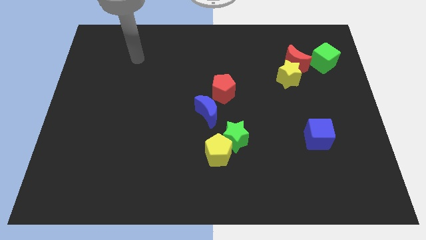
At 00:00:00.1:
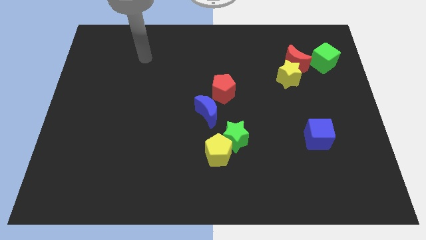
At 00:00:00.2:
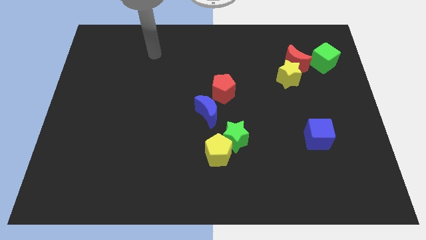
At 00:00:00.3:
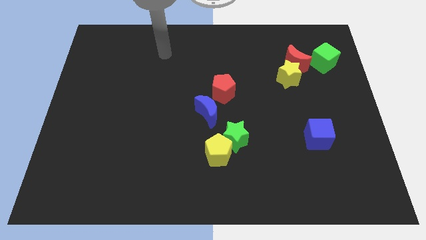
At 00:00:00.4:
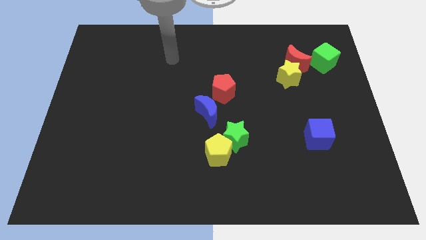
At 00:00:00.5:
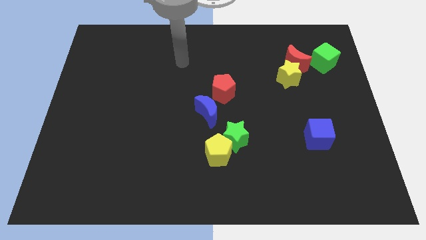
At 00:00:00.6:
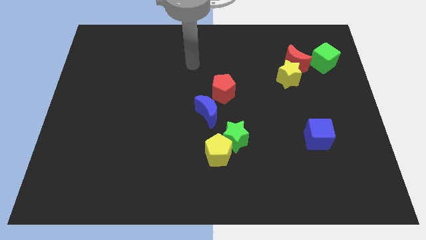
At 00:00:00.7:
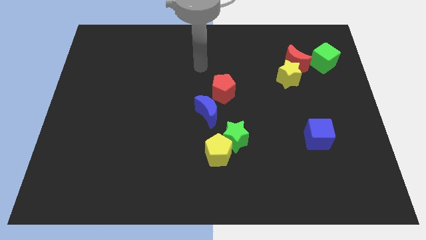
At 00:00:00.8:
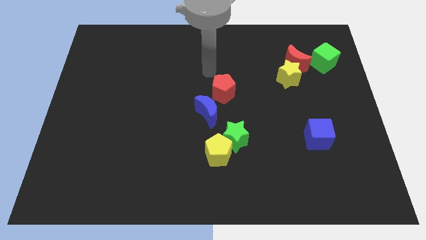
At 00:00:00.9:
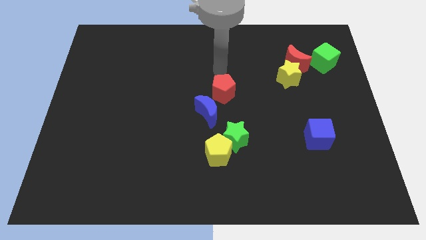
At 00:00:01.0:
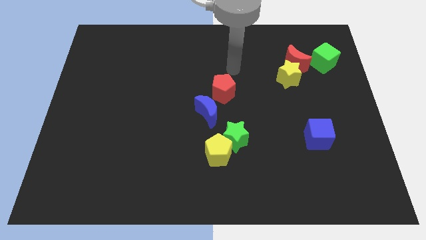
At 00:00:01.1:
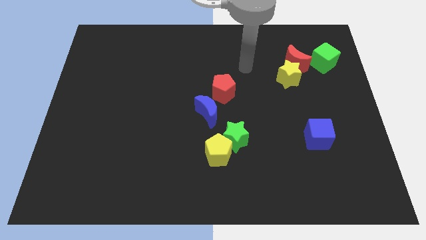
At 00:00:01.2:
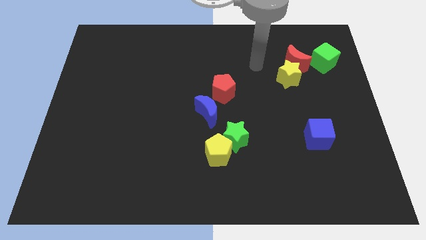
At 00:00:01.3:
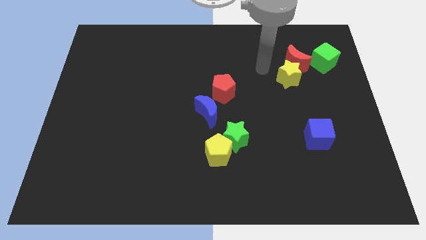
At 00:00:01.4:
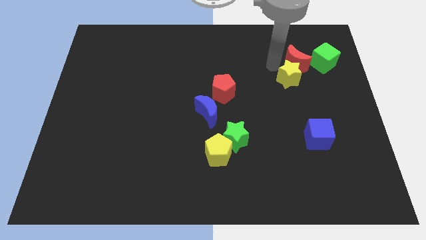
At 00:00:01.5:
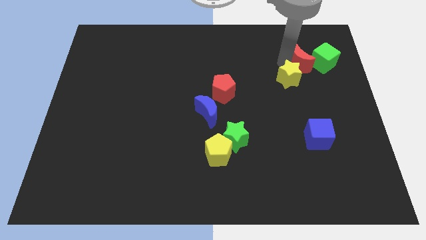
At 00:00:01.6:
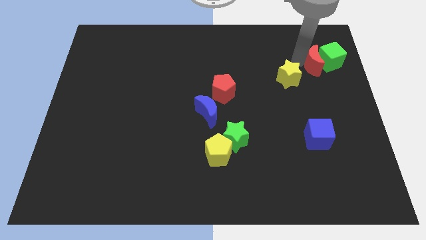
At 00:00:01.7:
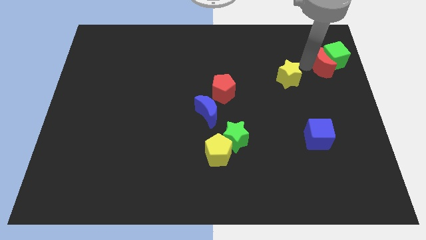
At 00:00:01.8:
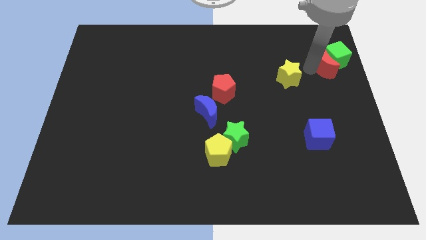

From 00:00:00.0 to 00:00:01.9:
move the yellow star away from the red moon

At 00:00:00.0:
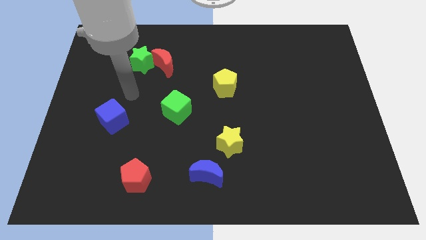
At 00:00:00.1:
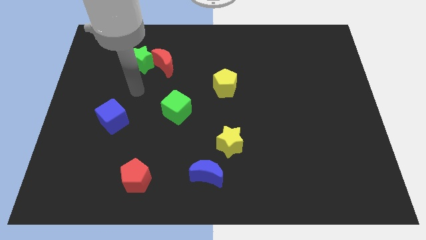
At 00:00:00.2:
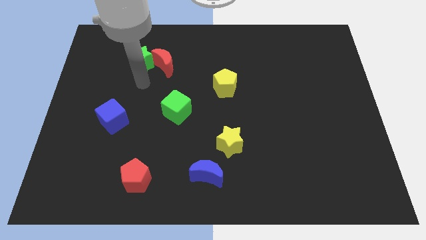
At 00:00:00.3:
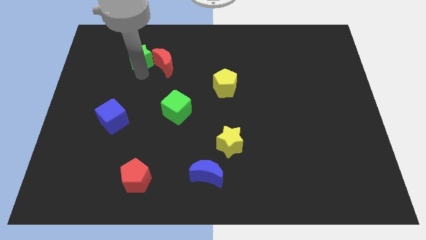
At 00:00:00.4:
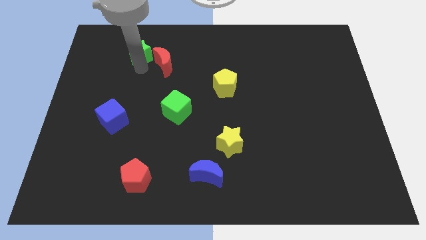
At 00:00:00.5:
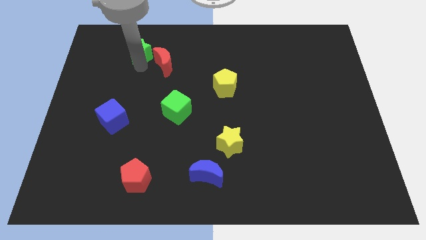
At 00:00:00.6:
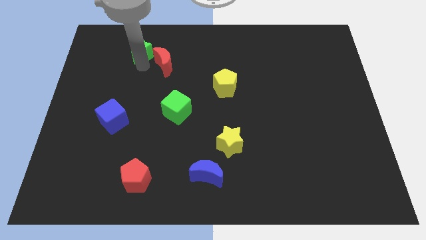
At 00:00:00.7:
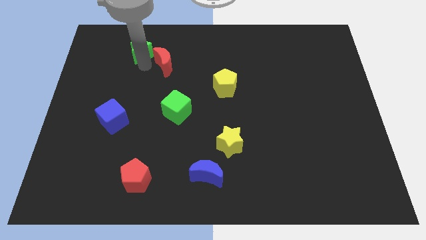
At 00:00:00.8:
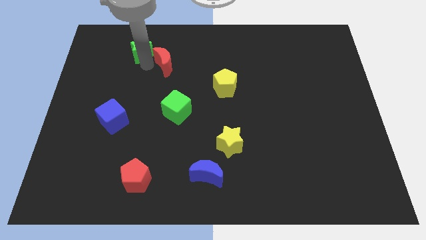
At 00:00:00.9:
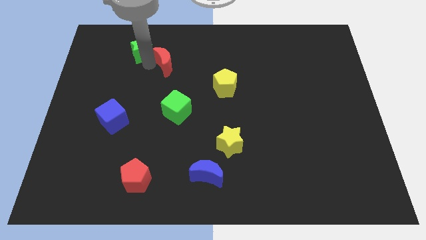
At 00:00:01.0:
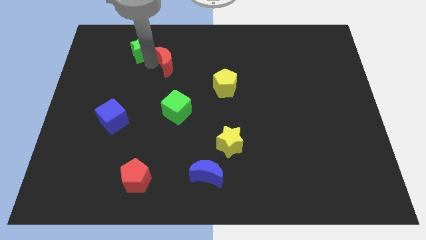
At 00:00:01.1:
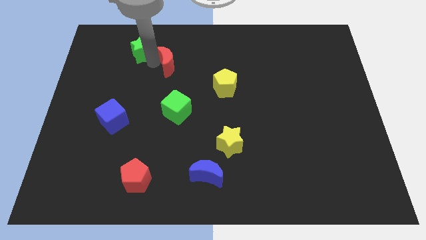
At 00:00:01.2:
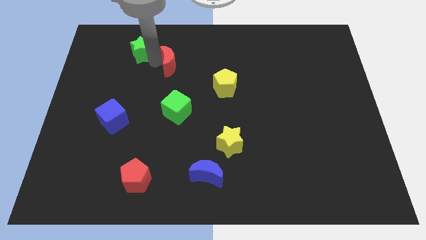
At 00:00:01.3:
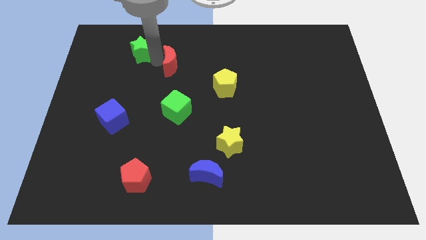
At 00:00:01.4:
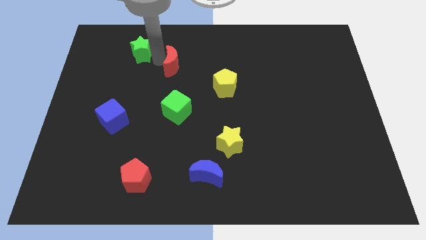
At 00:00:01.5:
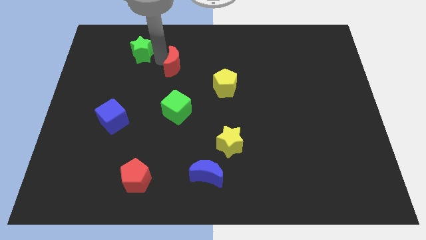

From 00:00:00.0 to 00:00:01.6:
pull the red moon apart from the green star

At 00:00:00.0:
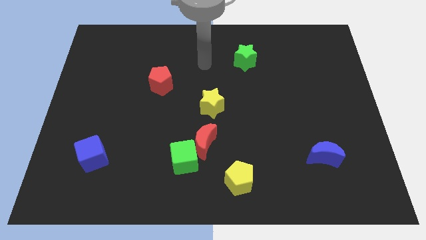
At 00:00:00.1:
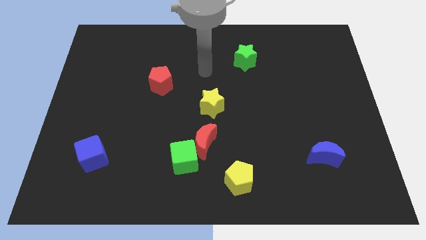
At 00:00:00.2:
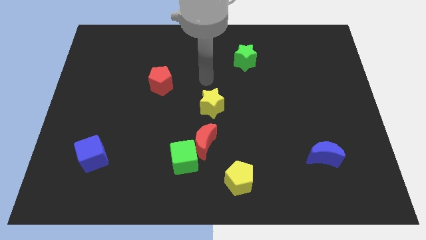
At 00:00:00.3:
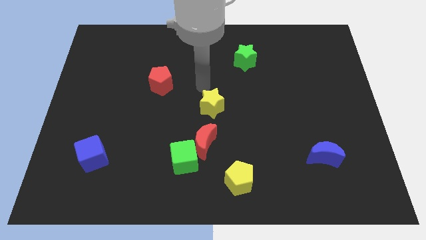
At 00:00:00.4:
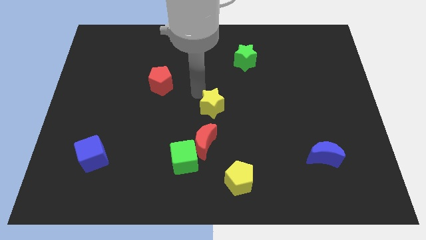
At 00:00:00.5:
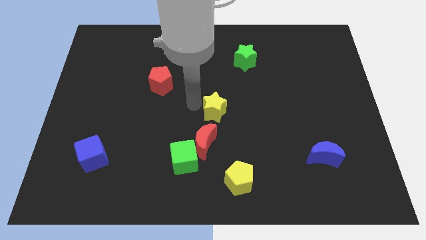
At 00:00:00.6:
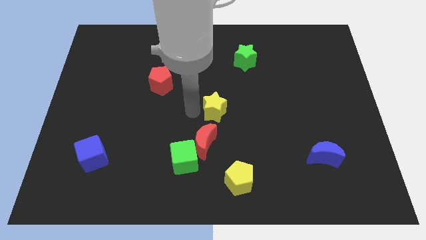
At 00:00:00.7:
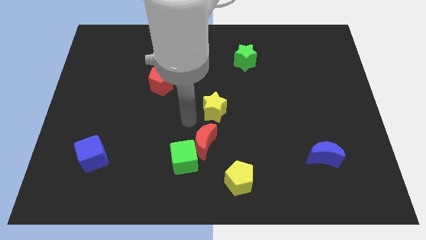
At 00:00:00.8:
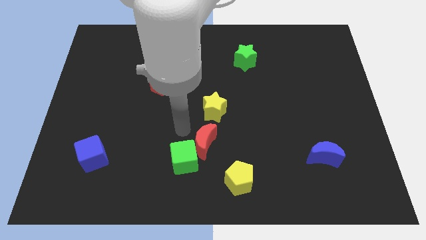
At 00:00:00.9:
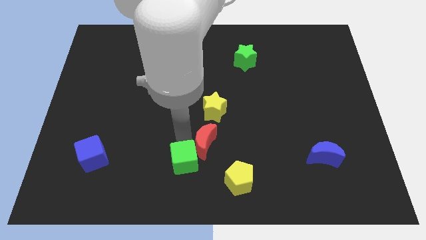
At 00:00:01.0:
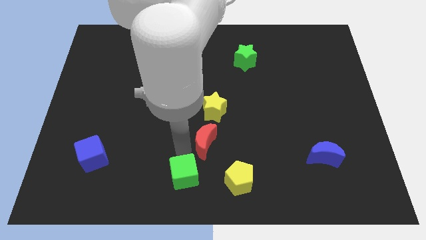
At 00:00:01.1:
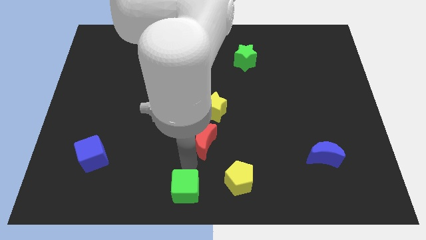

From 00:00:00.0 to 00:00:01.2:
pull the red moon apart from the green cube

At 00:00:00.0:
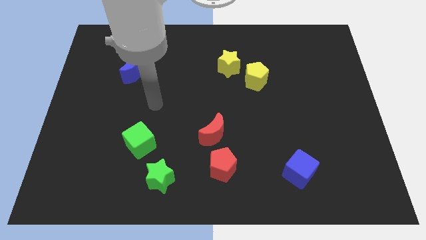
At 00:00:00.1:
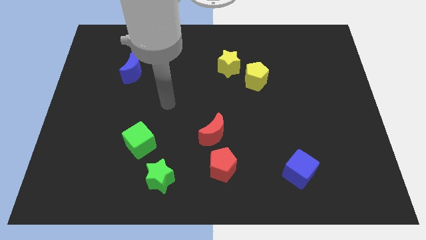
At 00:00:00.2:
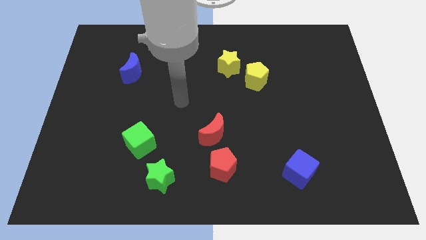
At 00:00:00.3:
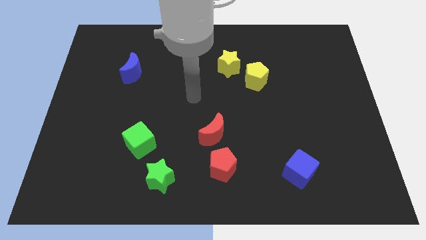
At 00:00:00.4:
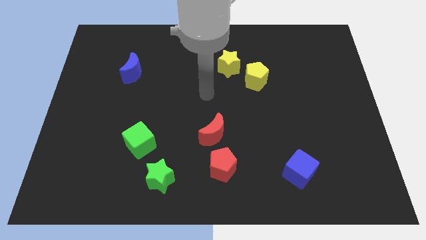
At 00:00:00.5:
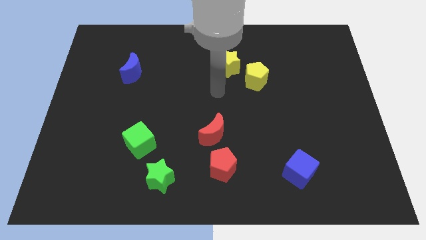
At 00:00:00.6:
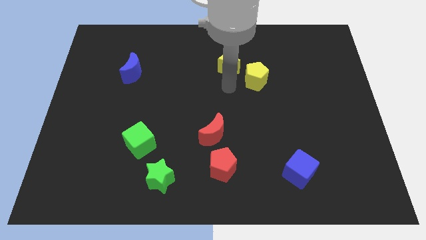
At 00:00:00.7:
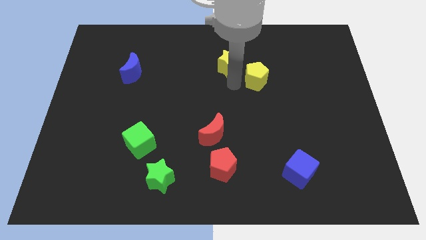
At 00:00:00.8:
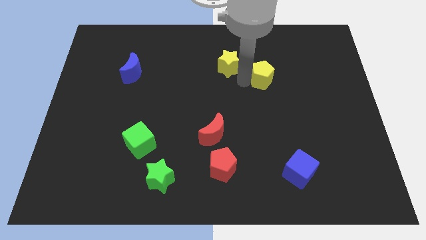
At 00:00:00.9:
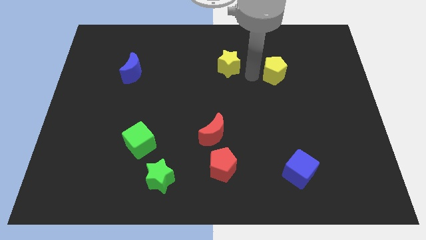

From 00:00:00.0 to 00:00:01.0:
move the yellow star away from the yellow pentagon

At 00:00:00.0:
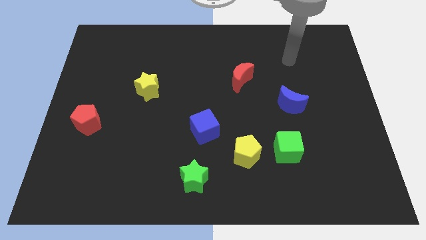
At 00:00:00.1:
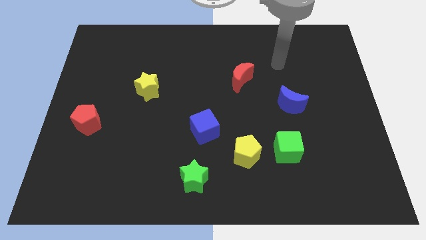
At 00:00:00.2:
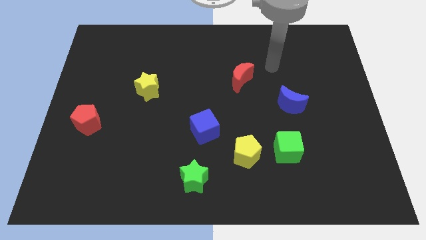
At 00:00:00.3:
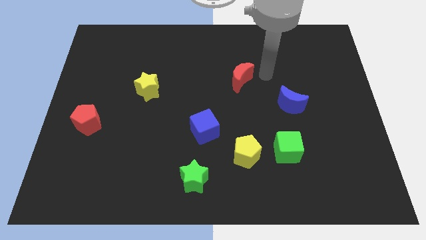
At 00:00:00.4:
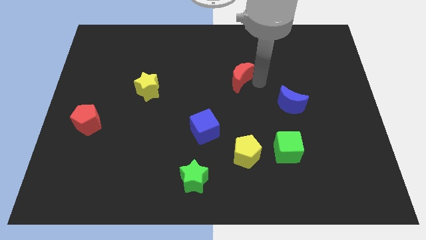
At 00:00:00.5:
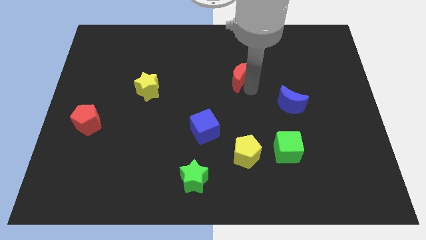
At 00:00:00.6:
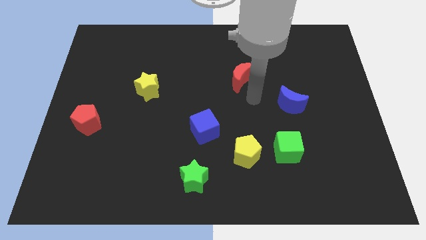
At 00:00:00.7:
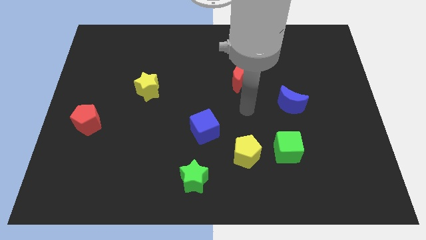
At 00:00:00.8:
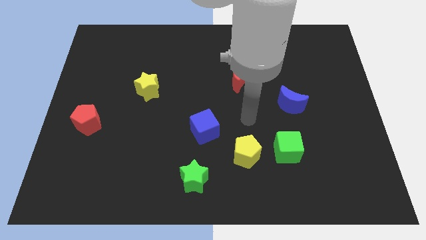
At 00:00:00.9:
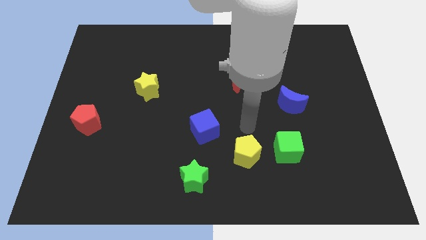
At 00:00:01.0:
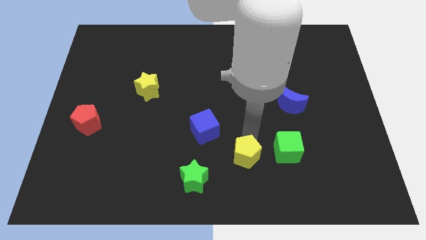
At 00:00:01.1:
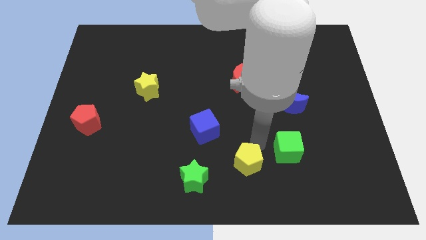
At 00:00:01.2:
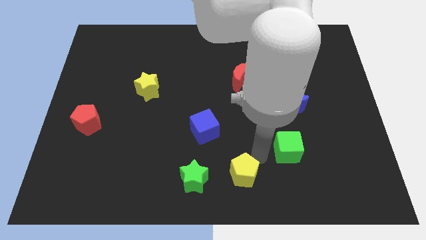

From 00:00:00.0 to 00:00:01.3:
pull the green cube apart from the yellow pentagon

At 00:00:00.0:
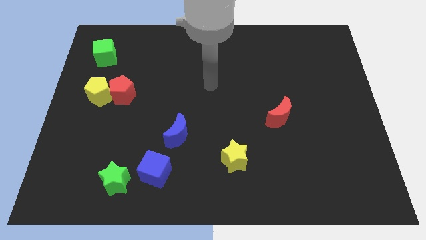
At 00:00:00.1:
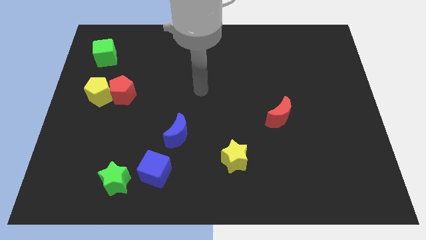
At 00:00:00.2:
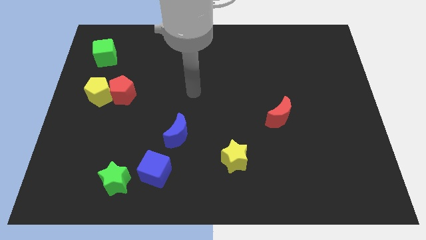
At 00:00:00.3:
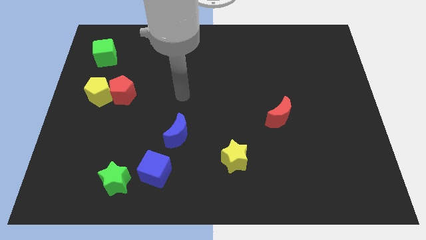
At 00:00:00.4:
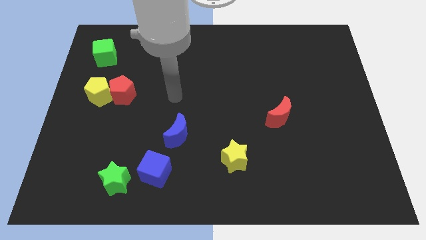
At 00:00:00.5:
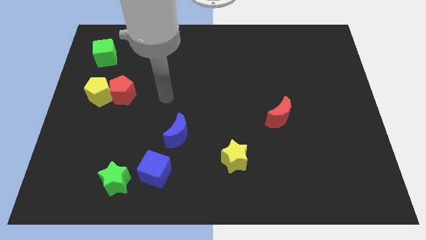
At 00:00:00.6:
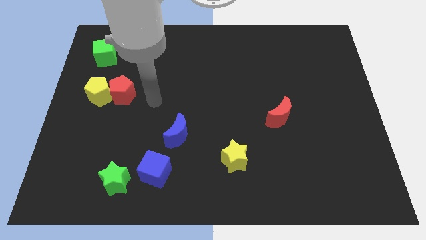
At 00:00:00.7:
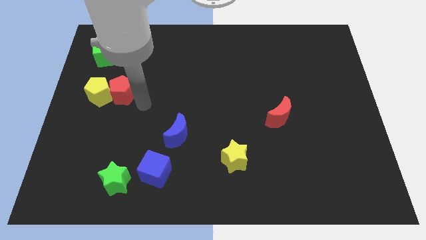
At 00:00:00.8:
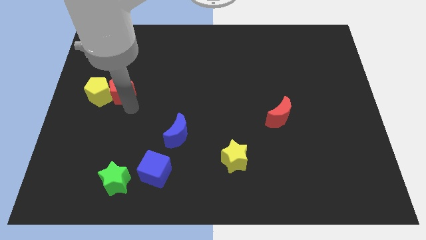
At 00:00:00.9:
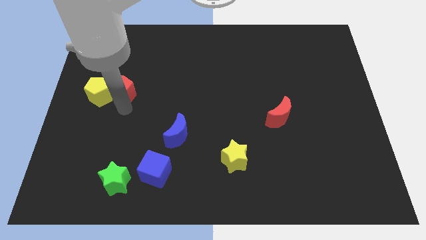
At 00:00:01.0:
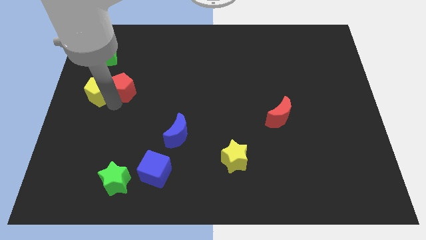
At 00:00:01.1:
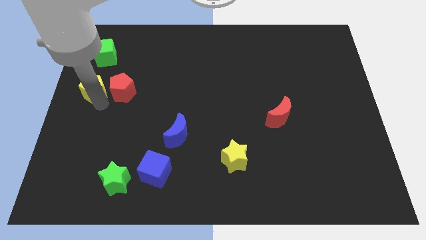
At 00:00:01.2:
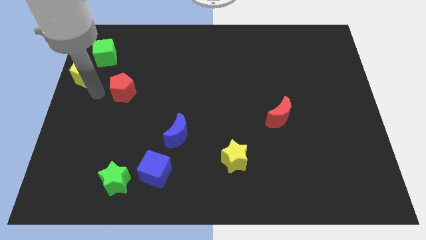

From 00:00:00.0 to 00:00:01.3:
pull the red pentagon apart from the yellow pentagon

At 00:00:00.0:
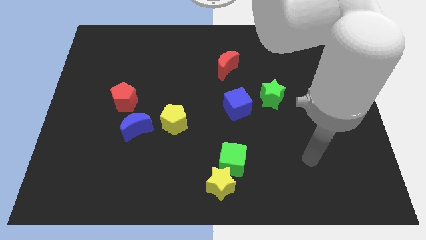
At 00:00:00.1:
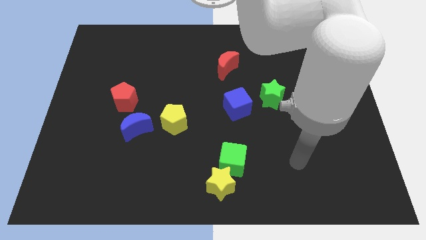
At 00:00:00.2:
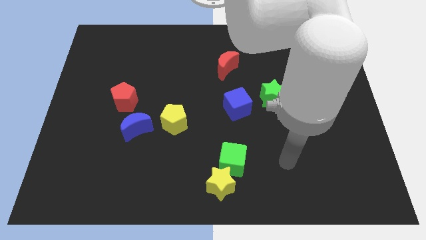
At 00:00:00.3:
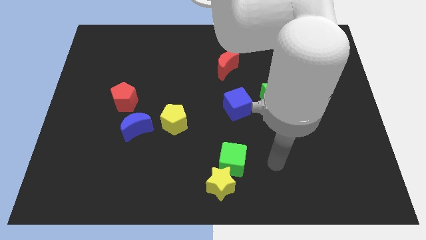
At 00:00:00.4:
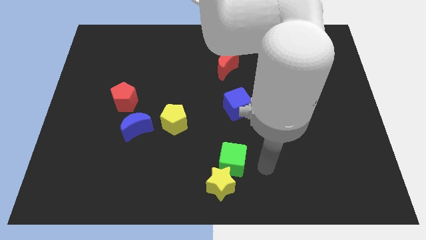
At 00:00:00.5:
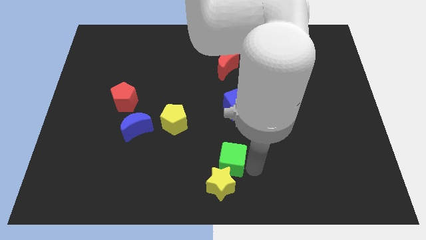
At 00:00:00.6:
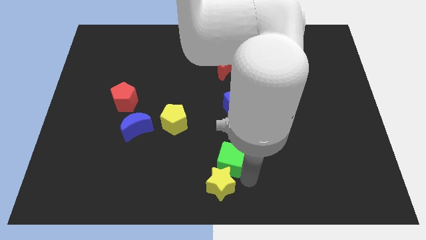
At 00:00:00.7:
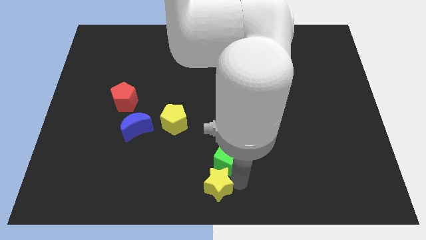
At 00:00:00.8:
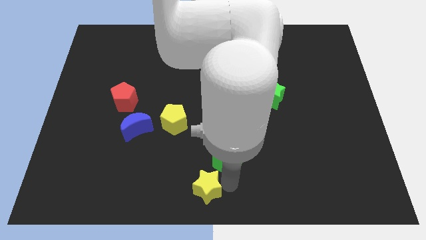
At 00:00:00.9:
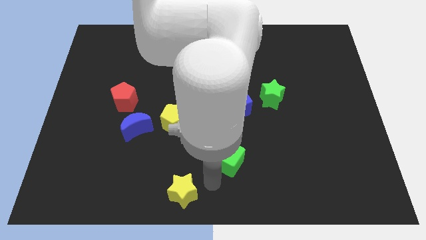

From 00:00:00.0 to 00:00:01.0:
move the green cube away from the yellow star
